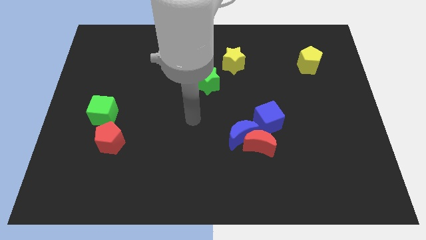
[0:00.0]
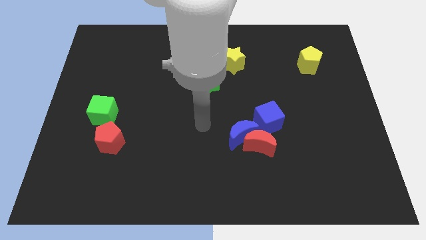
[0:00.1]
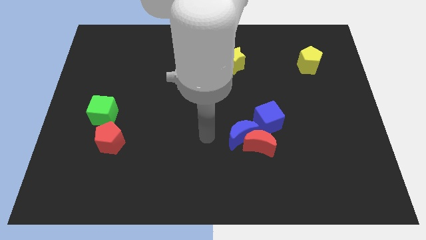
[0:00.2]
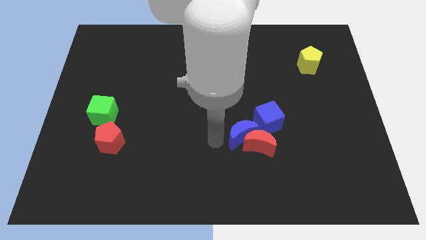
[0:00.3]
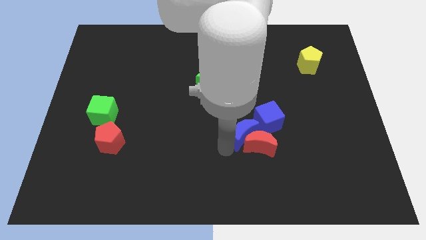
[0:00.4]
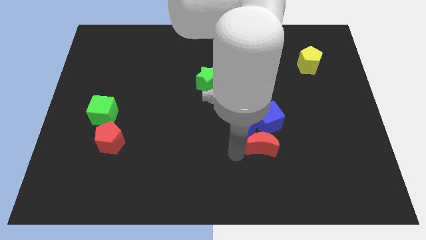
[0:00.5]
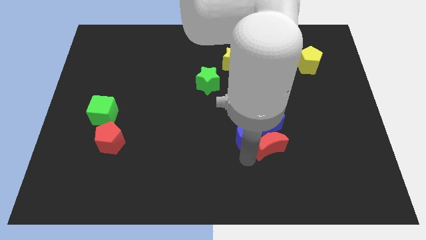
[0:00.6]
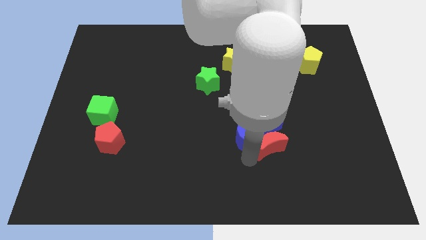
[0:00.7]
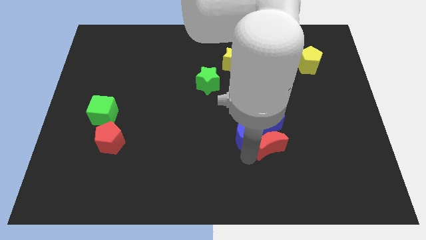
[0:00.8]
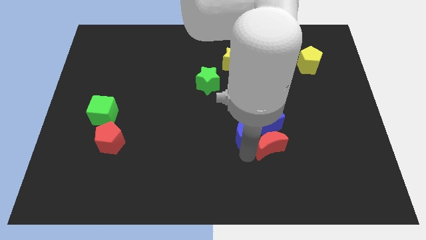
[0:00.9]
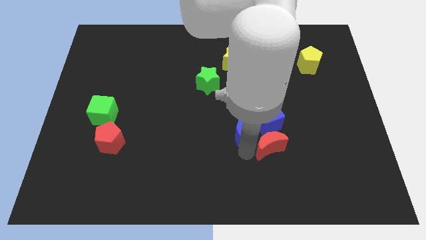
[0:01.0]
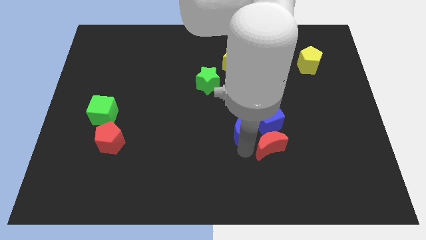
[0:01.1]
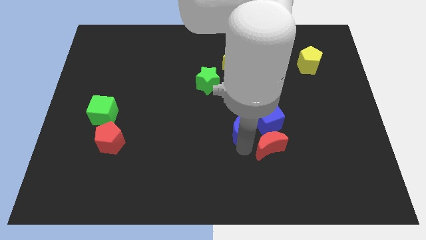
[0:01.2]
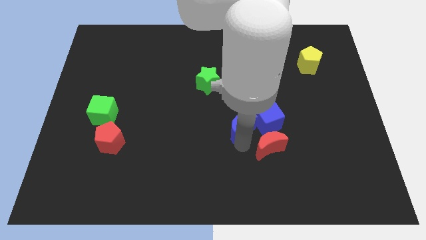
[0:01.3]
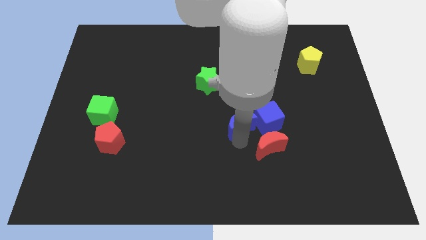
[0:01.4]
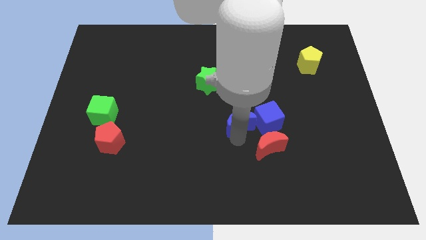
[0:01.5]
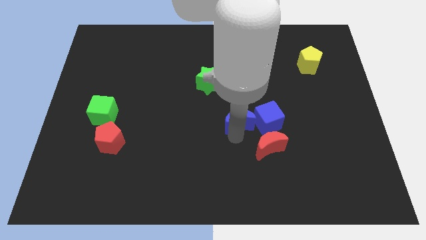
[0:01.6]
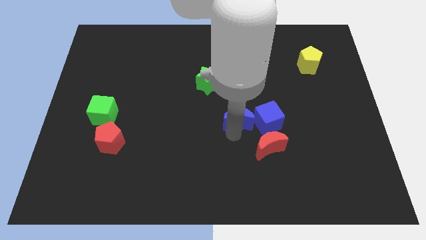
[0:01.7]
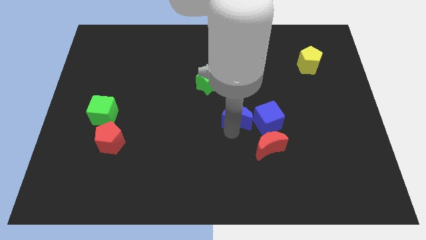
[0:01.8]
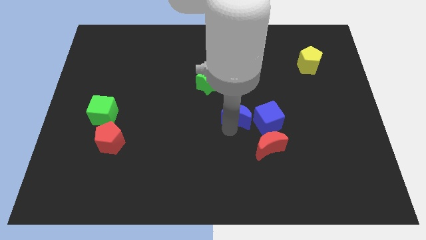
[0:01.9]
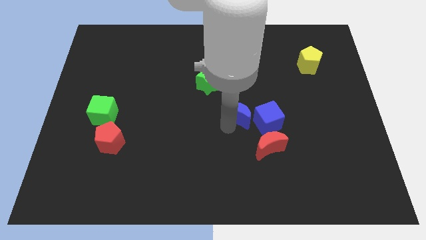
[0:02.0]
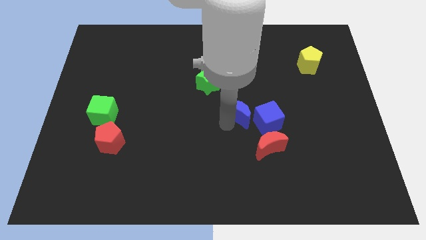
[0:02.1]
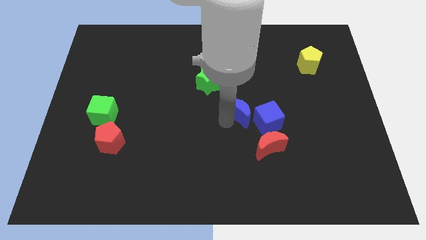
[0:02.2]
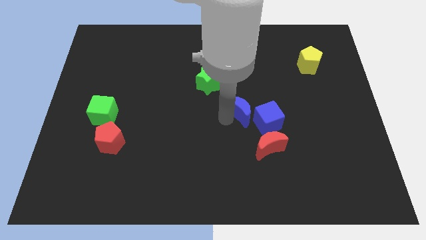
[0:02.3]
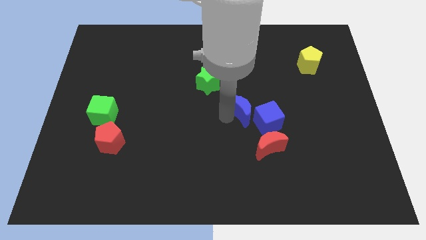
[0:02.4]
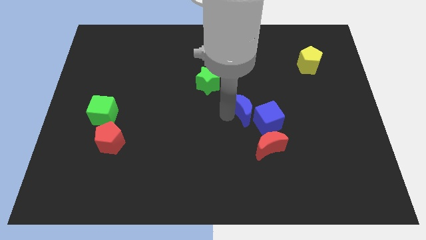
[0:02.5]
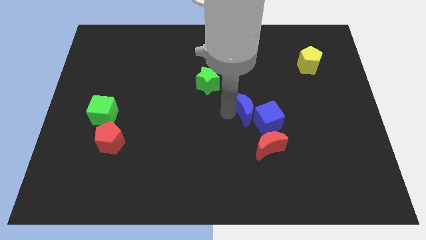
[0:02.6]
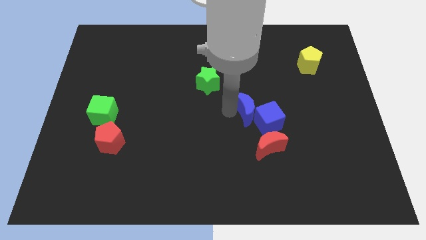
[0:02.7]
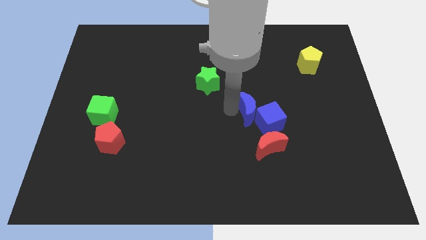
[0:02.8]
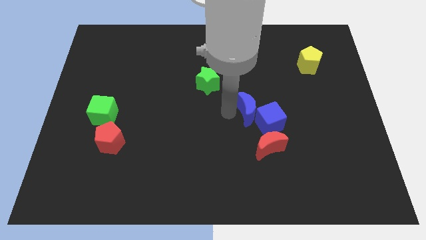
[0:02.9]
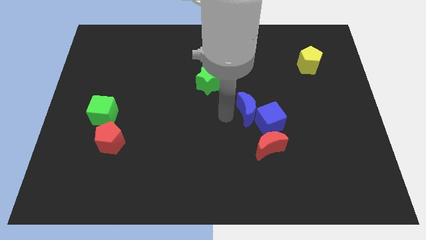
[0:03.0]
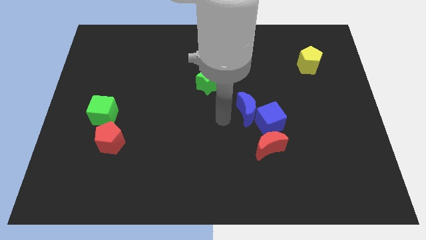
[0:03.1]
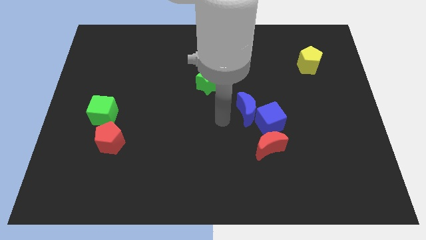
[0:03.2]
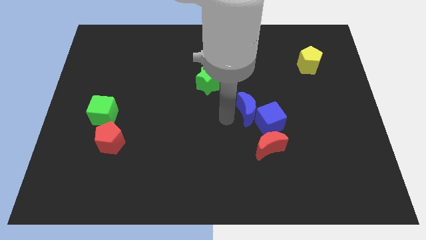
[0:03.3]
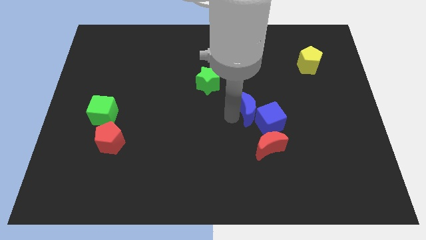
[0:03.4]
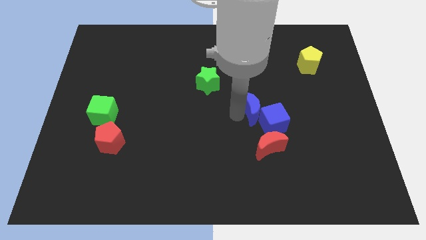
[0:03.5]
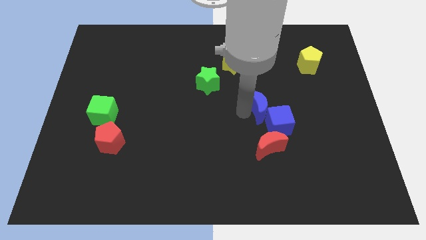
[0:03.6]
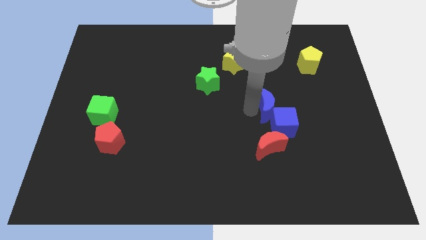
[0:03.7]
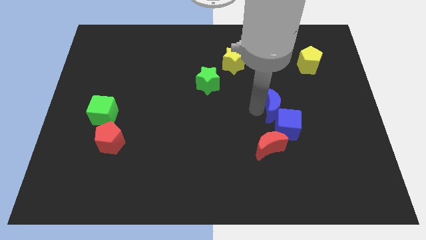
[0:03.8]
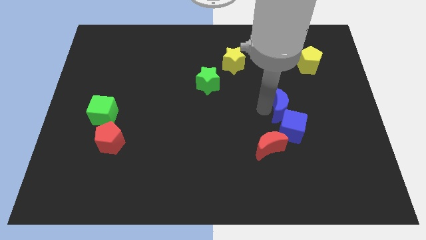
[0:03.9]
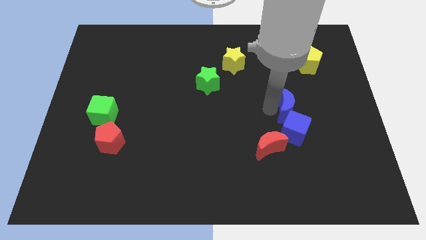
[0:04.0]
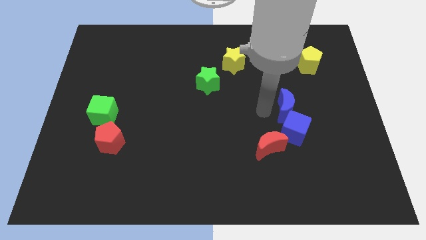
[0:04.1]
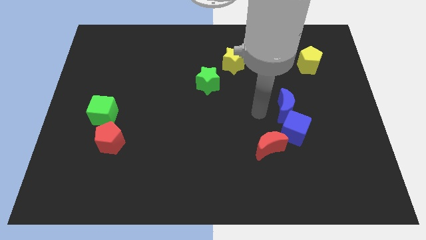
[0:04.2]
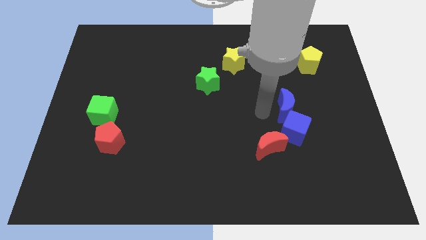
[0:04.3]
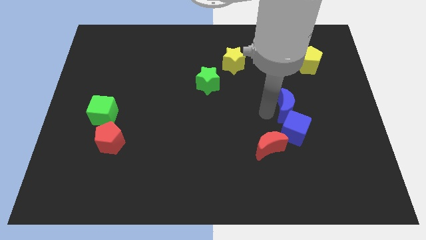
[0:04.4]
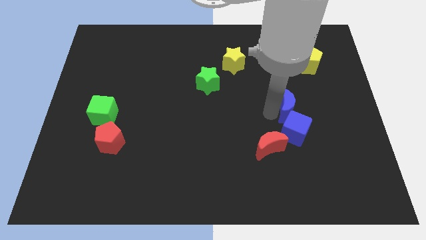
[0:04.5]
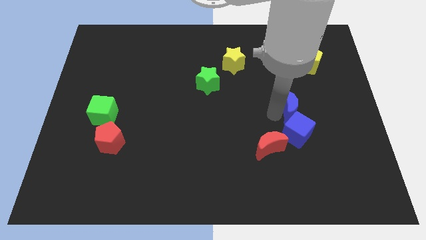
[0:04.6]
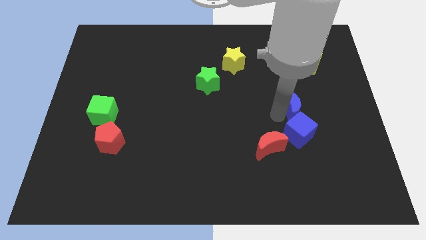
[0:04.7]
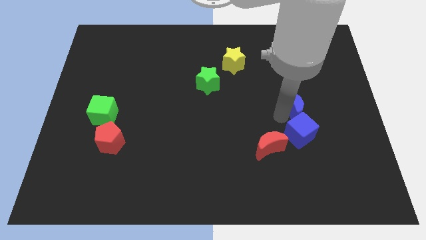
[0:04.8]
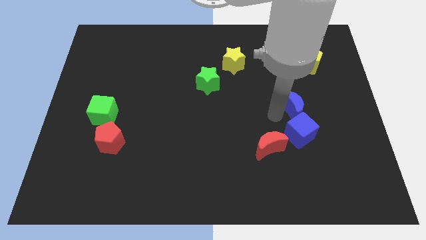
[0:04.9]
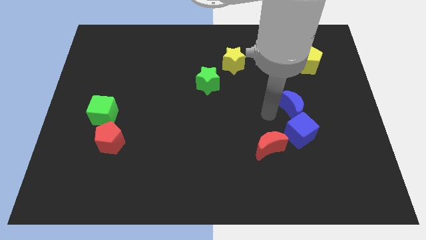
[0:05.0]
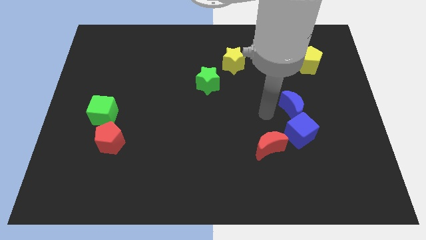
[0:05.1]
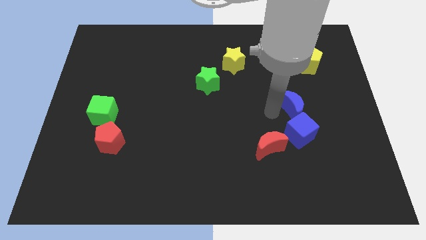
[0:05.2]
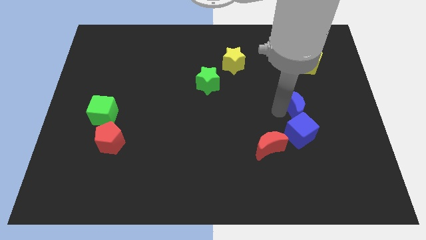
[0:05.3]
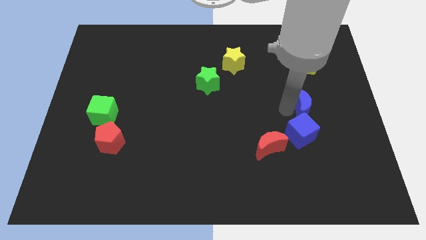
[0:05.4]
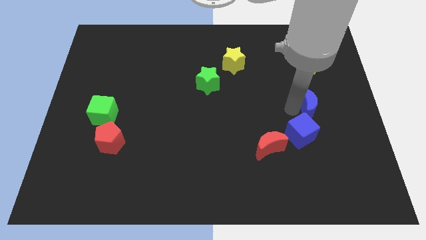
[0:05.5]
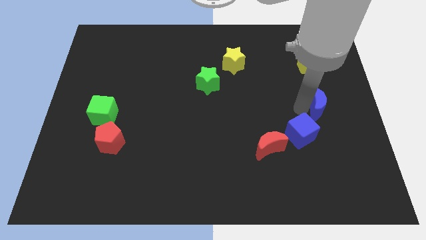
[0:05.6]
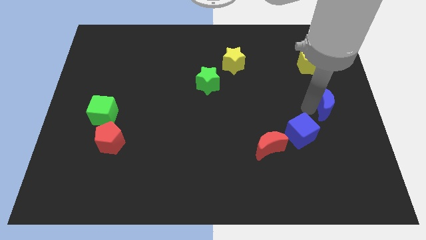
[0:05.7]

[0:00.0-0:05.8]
push the blue moon to the center right

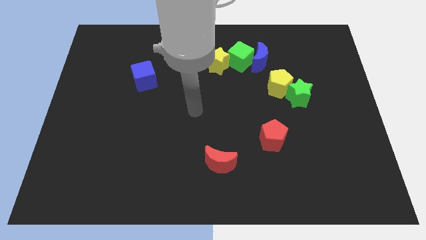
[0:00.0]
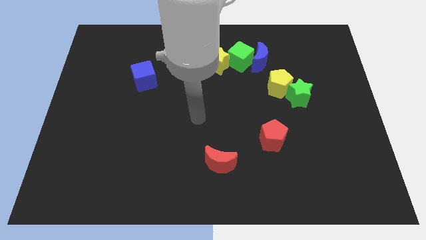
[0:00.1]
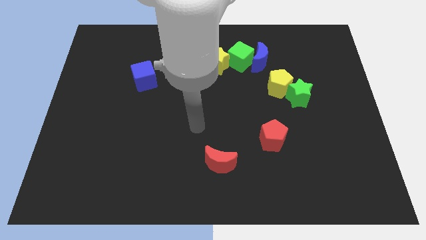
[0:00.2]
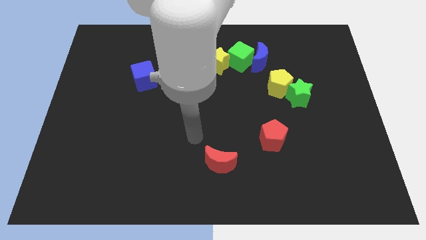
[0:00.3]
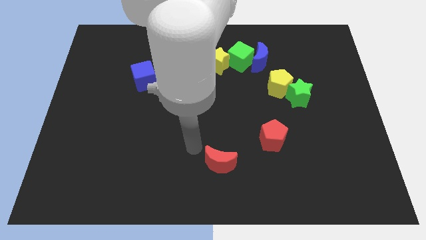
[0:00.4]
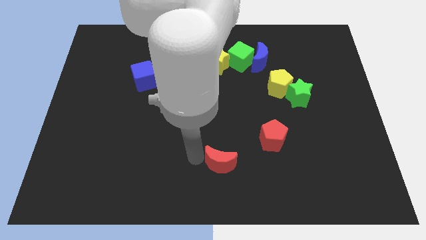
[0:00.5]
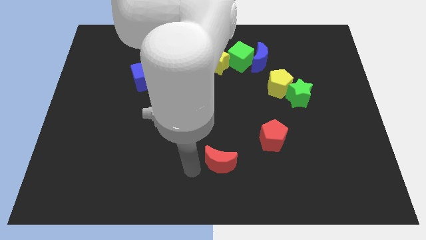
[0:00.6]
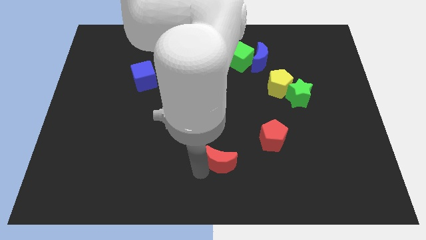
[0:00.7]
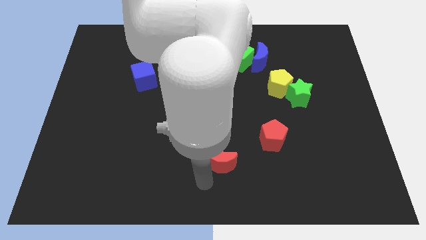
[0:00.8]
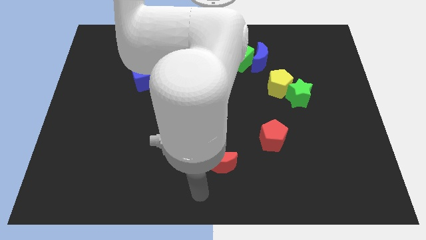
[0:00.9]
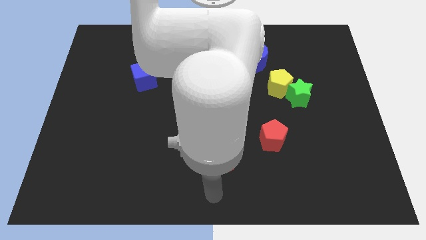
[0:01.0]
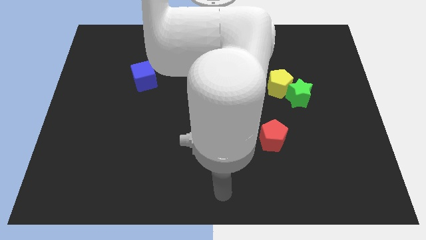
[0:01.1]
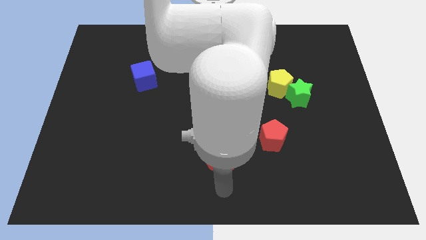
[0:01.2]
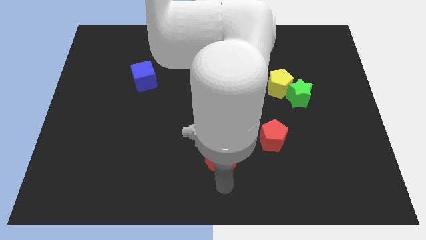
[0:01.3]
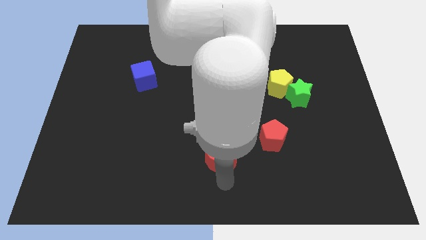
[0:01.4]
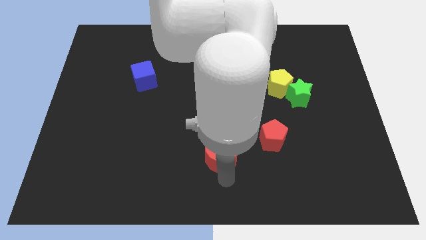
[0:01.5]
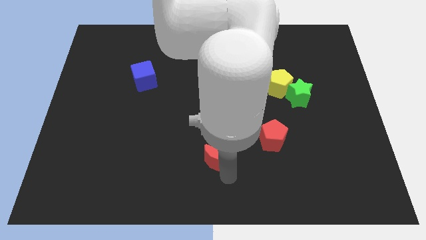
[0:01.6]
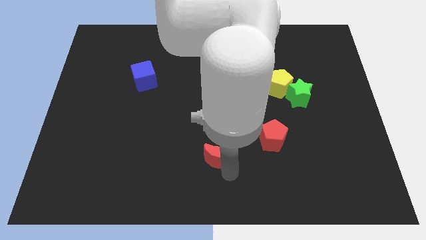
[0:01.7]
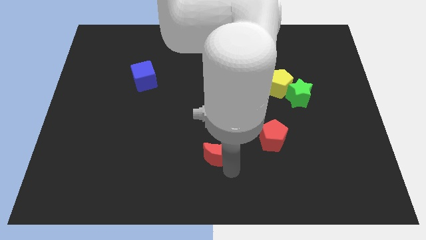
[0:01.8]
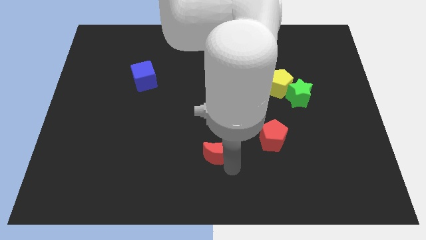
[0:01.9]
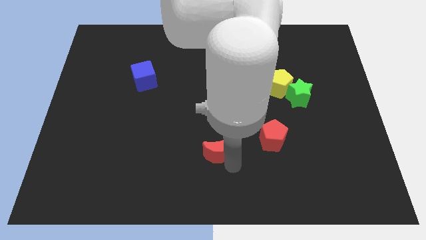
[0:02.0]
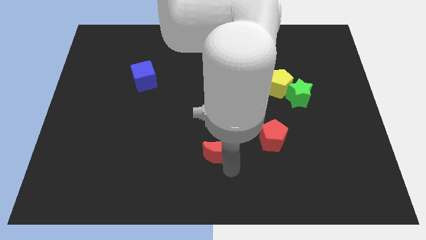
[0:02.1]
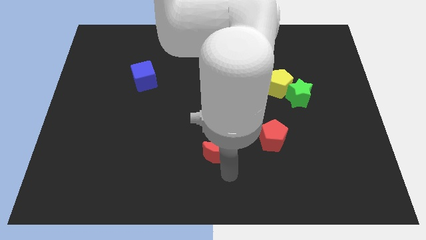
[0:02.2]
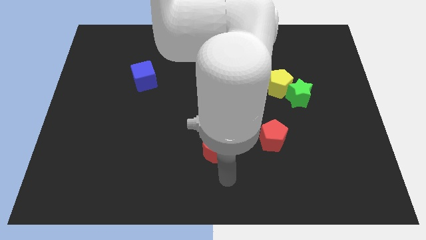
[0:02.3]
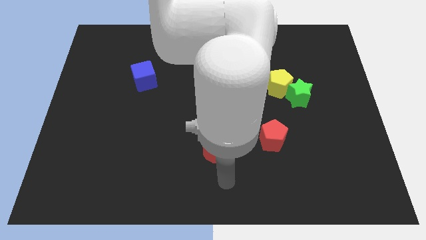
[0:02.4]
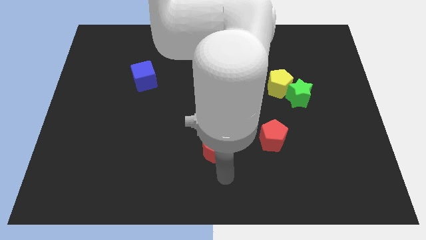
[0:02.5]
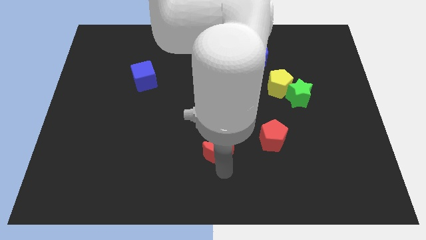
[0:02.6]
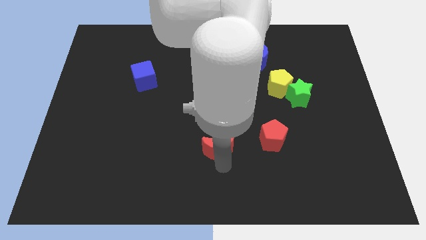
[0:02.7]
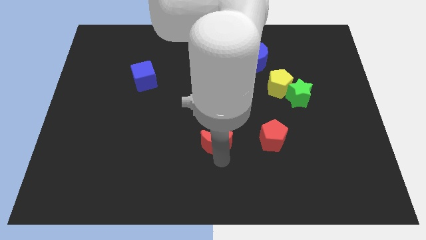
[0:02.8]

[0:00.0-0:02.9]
push the red moon to the center of the board
